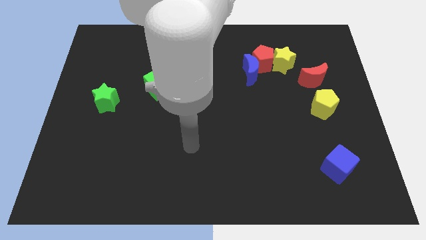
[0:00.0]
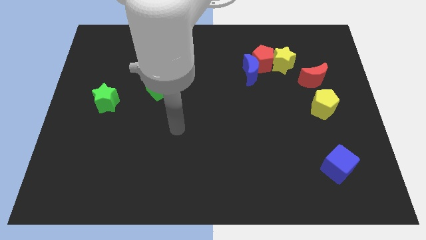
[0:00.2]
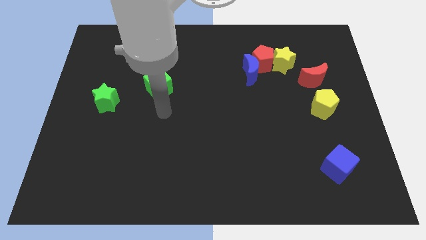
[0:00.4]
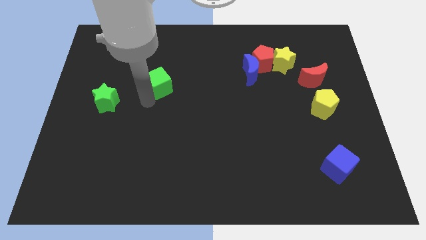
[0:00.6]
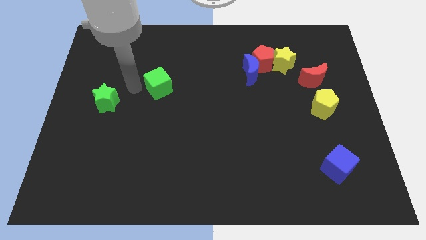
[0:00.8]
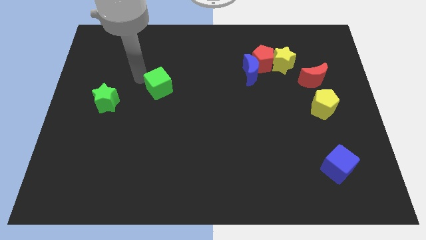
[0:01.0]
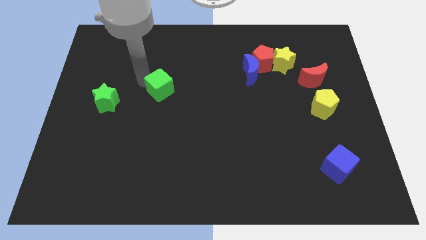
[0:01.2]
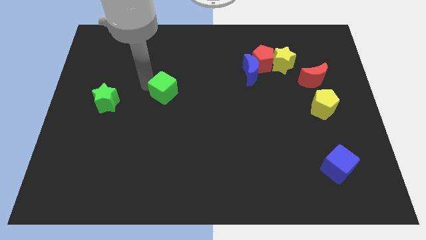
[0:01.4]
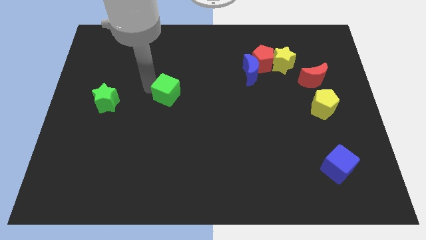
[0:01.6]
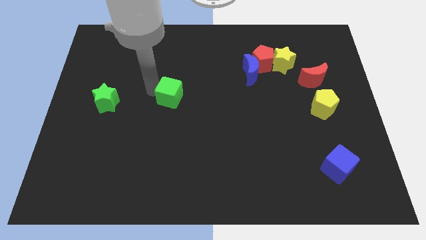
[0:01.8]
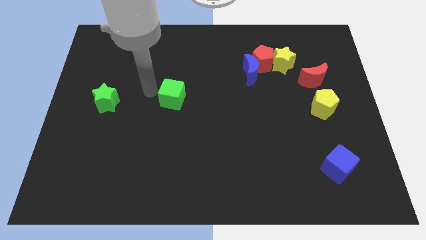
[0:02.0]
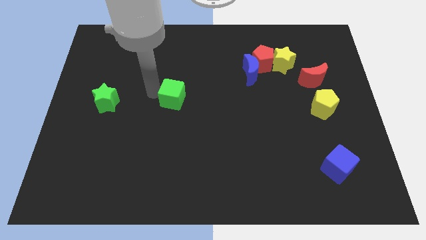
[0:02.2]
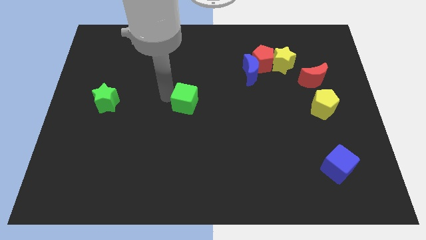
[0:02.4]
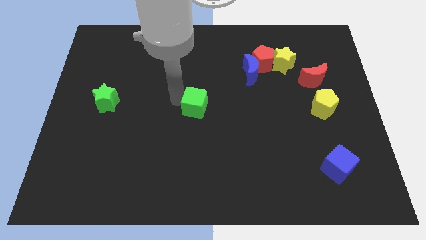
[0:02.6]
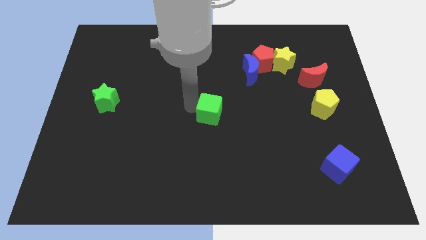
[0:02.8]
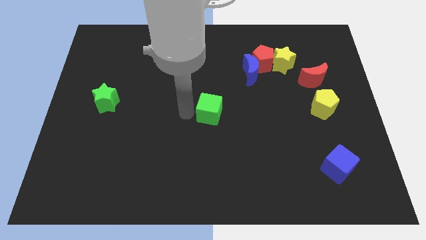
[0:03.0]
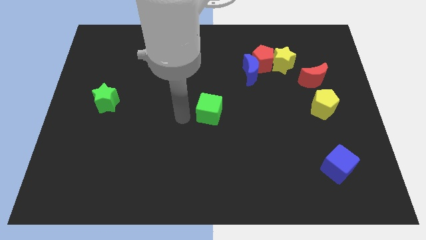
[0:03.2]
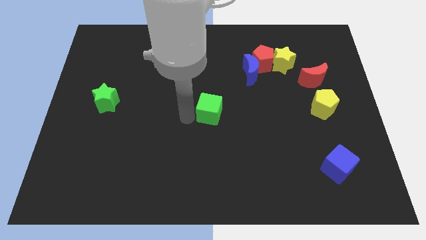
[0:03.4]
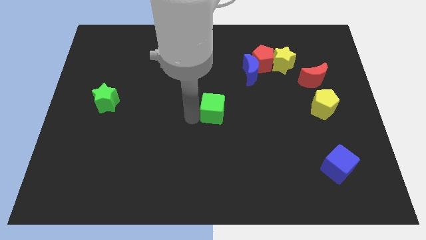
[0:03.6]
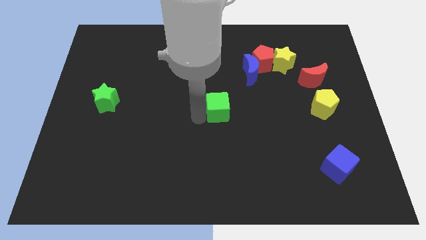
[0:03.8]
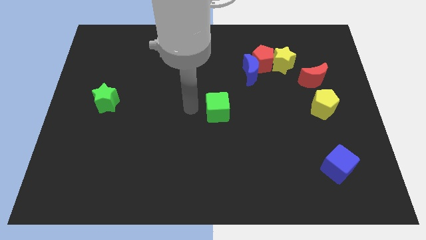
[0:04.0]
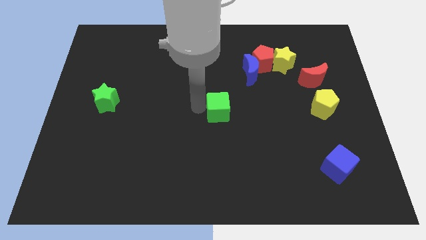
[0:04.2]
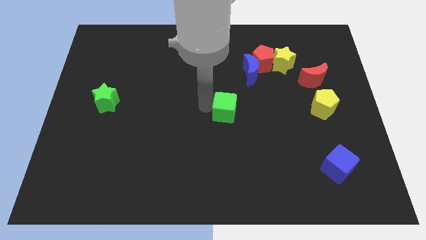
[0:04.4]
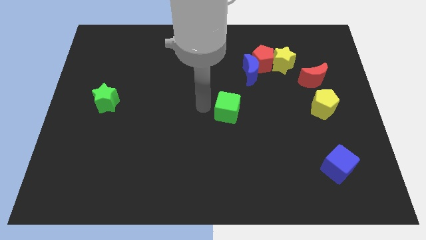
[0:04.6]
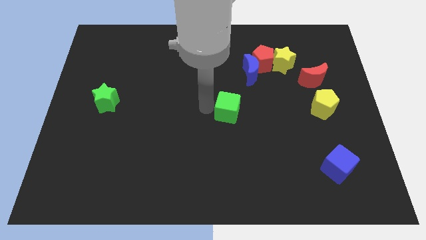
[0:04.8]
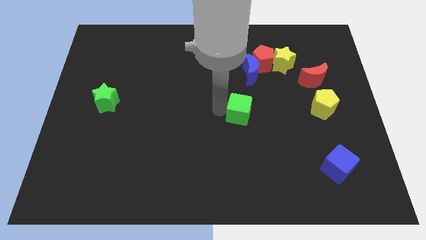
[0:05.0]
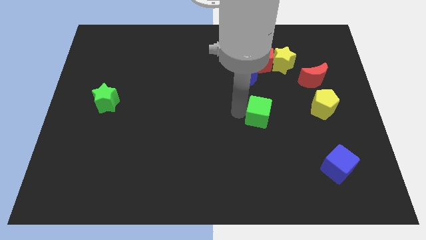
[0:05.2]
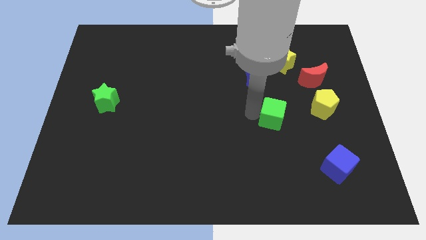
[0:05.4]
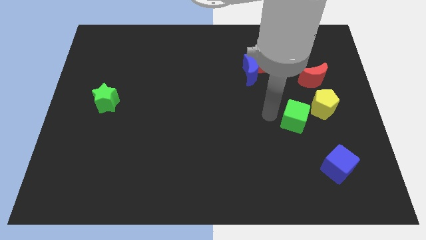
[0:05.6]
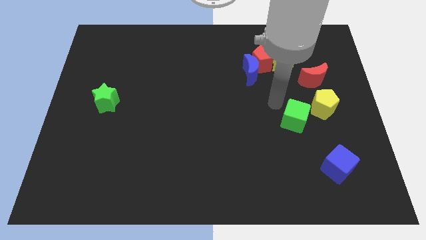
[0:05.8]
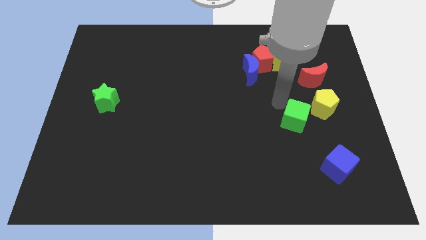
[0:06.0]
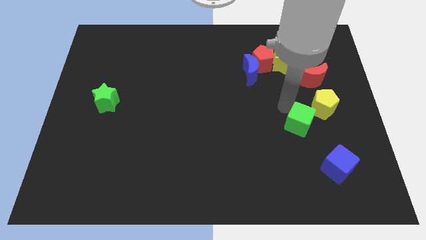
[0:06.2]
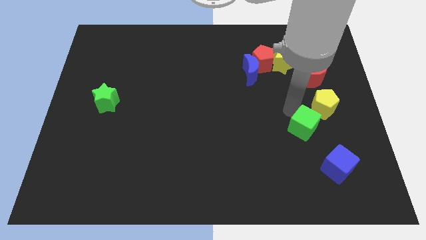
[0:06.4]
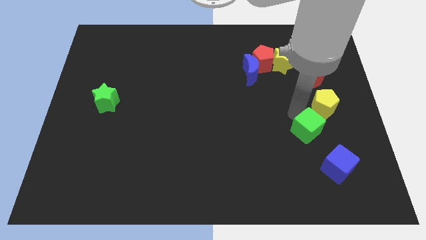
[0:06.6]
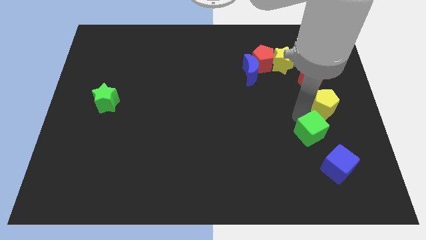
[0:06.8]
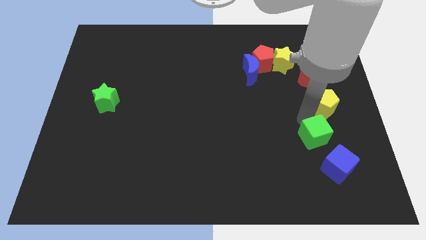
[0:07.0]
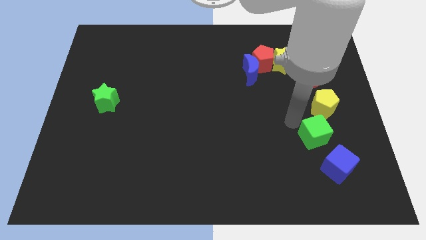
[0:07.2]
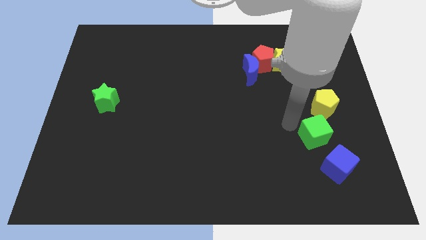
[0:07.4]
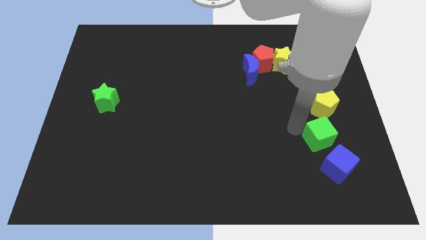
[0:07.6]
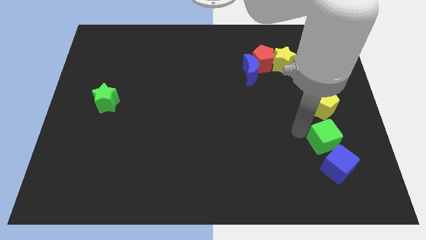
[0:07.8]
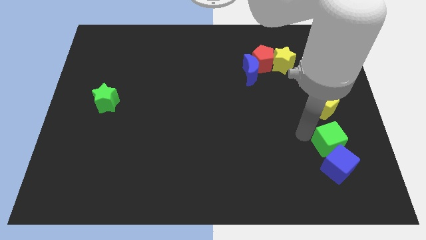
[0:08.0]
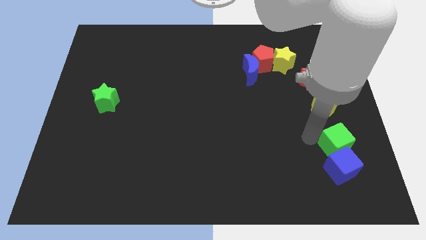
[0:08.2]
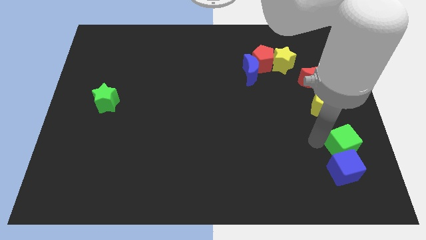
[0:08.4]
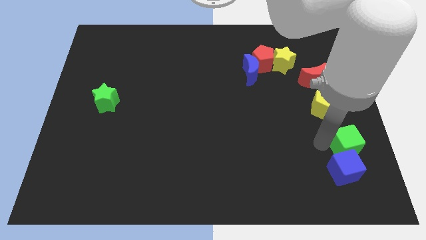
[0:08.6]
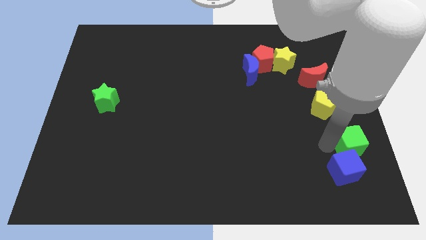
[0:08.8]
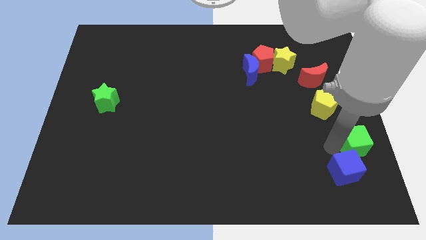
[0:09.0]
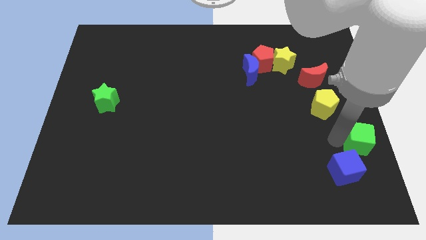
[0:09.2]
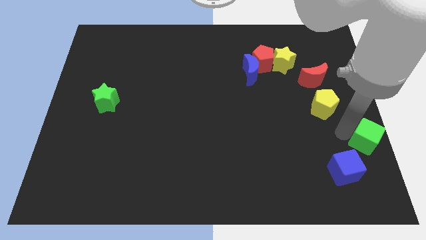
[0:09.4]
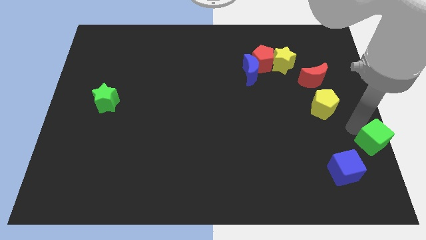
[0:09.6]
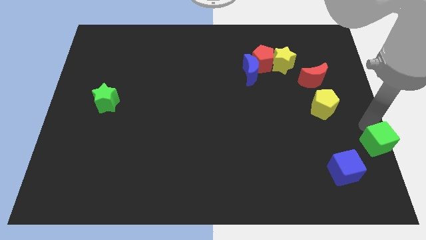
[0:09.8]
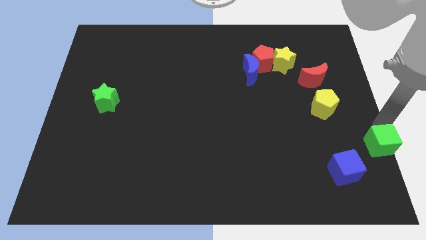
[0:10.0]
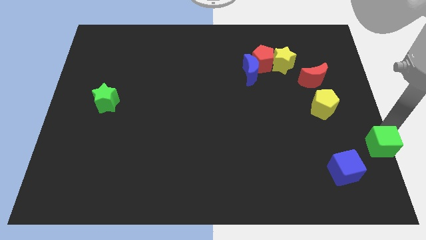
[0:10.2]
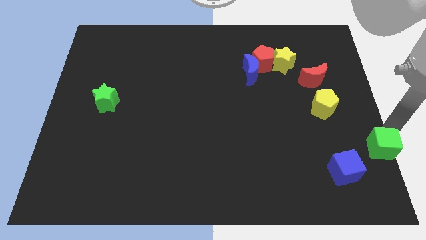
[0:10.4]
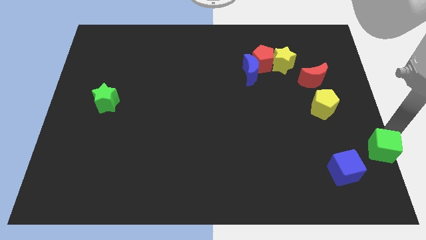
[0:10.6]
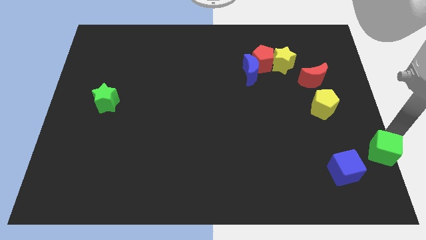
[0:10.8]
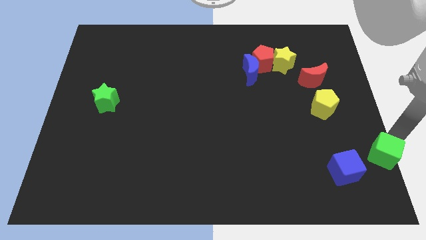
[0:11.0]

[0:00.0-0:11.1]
move the green cube to the bottom right corner
